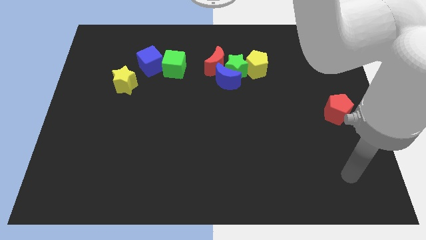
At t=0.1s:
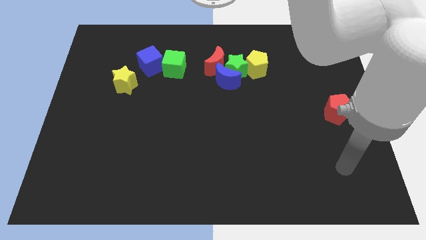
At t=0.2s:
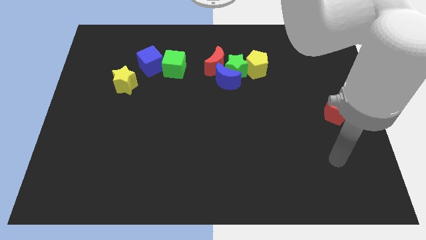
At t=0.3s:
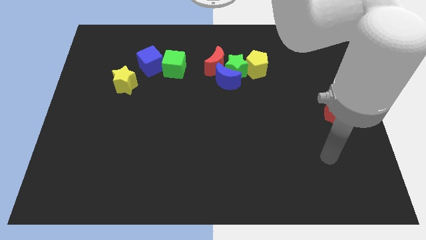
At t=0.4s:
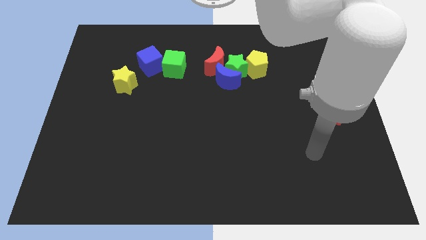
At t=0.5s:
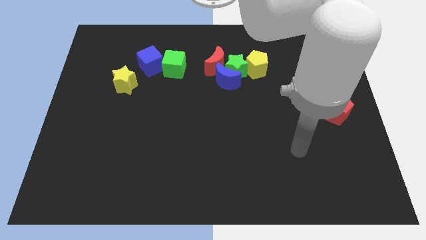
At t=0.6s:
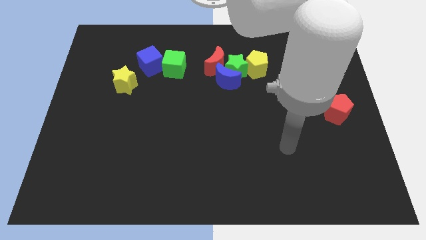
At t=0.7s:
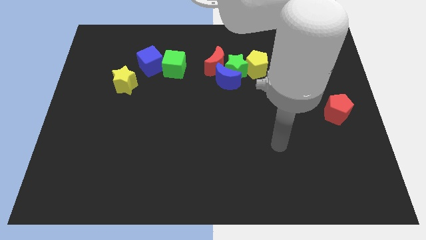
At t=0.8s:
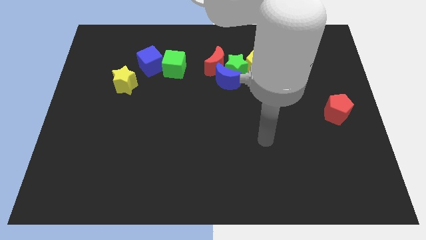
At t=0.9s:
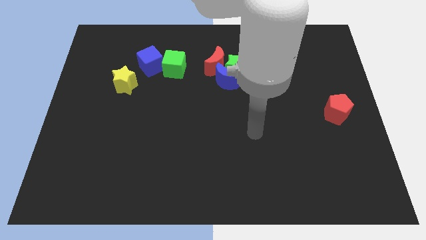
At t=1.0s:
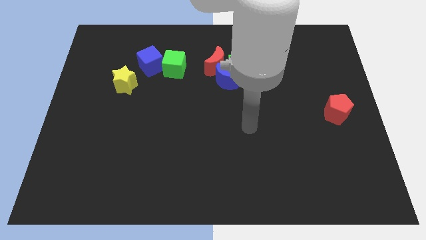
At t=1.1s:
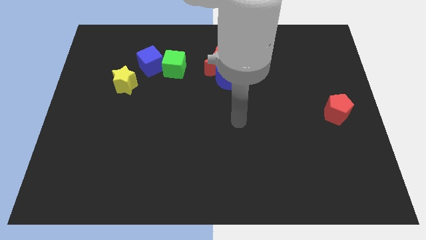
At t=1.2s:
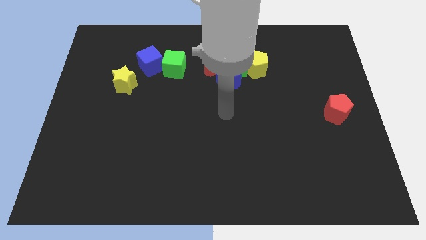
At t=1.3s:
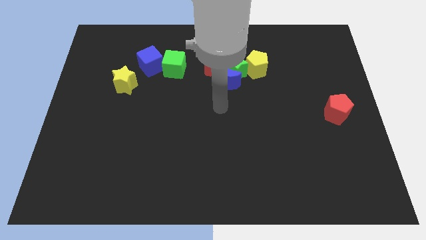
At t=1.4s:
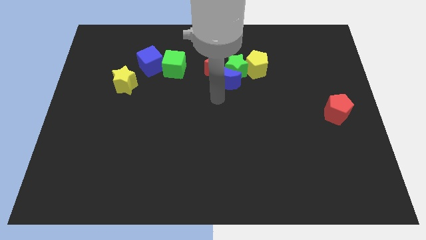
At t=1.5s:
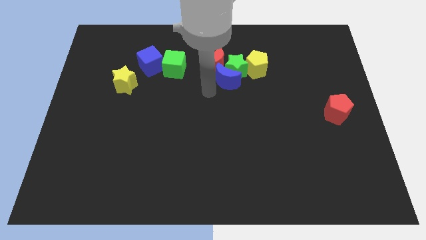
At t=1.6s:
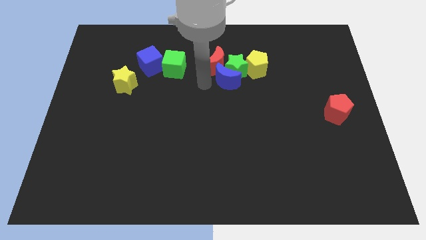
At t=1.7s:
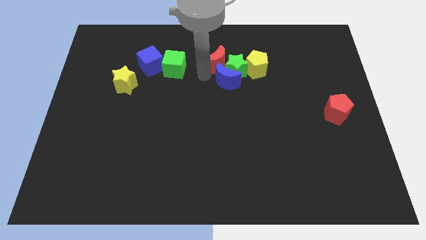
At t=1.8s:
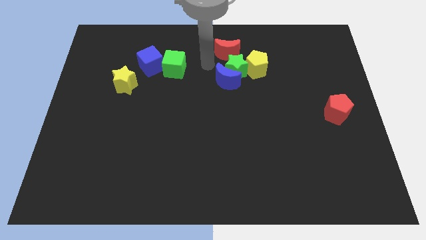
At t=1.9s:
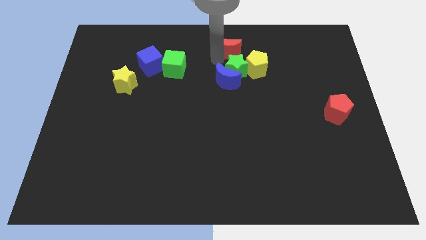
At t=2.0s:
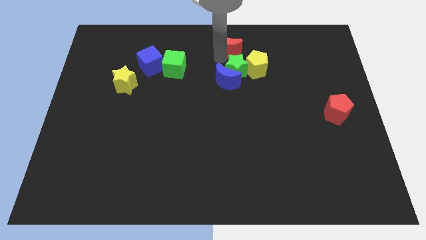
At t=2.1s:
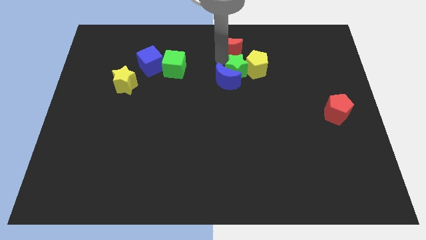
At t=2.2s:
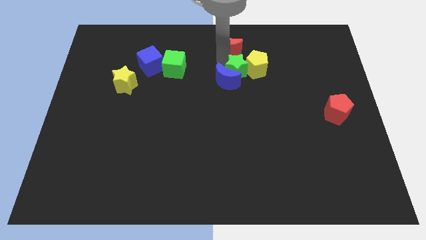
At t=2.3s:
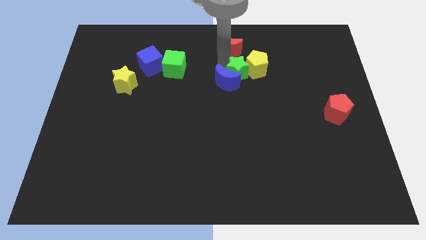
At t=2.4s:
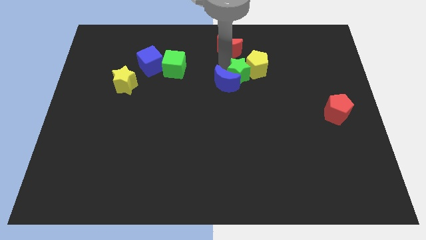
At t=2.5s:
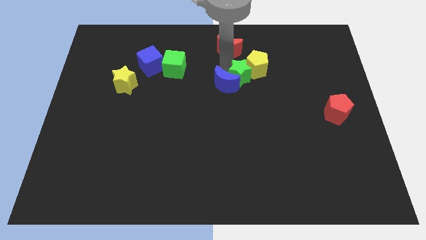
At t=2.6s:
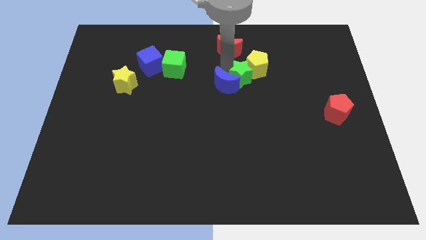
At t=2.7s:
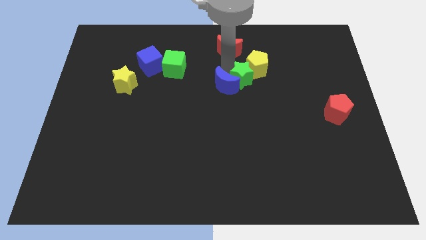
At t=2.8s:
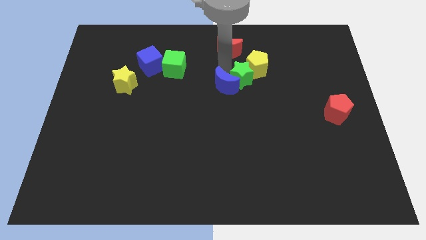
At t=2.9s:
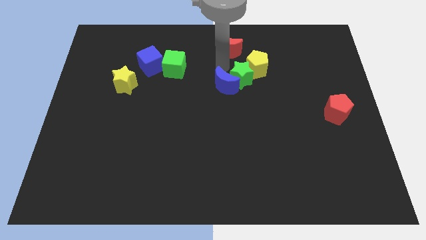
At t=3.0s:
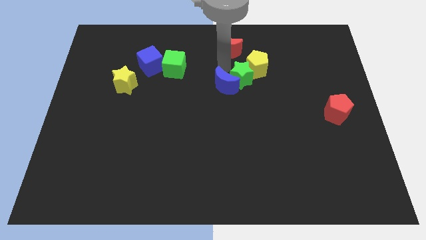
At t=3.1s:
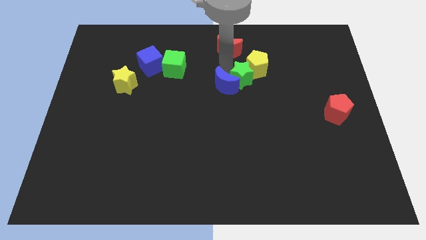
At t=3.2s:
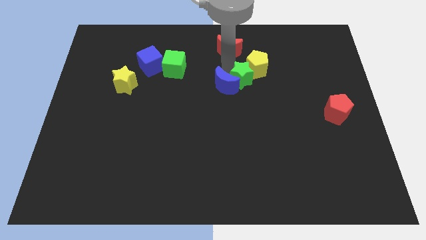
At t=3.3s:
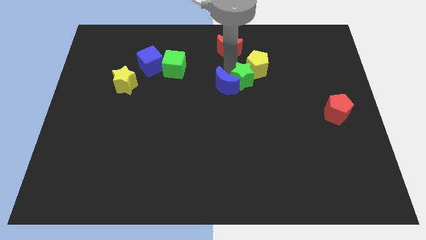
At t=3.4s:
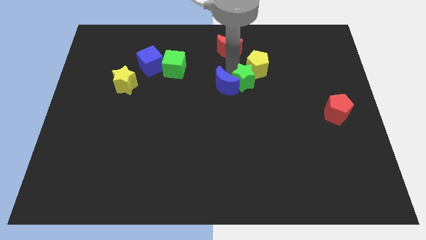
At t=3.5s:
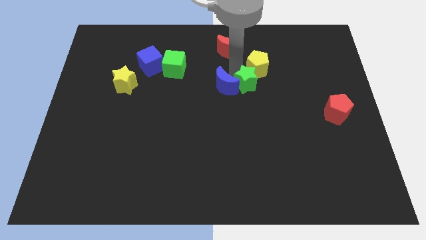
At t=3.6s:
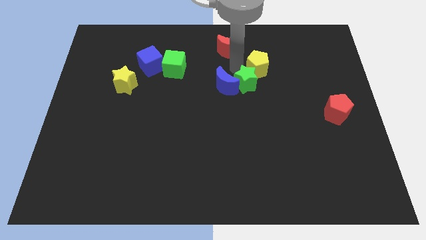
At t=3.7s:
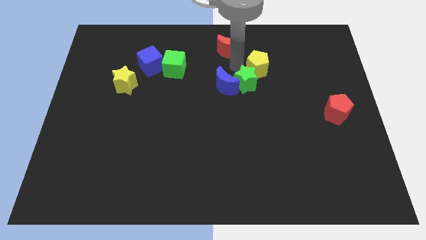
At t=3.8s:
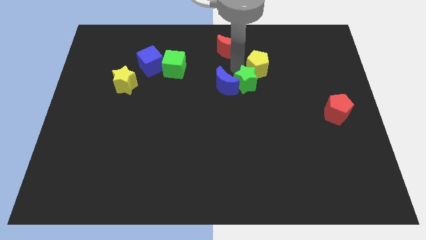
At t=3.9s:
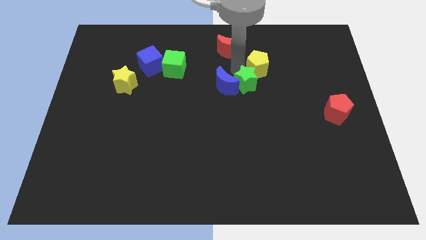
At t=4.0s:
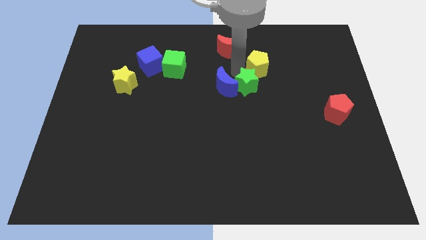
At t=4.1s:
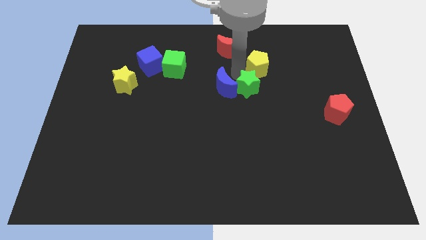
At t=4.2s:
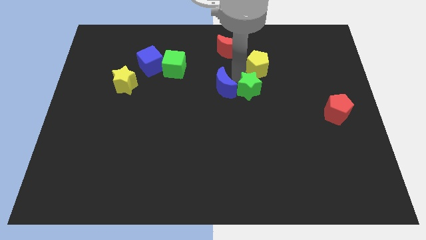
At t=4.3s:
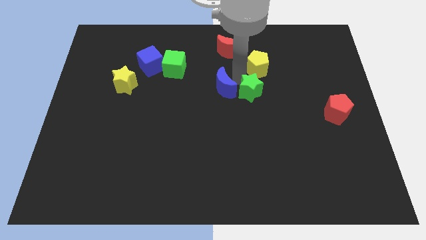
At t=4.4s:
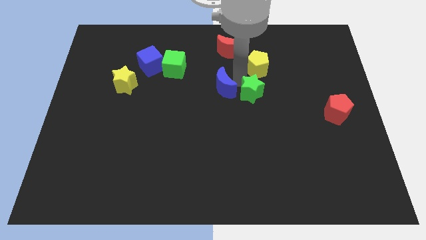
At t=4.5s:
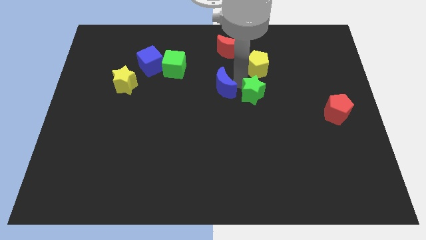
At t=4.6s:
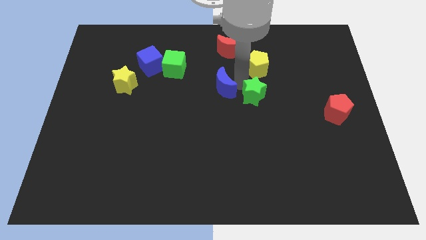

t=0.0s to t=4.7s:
pull the green star apart from the blue moon, red moon, and yellow pentagon

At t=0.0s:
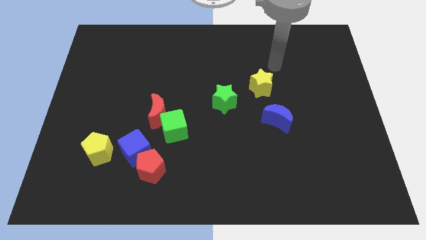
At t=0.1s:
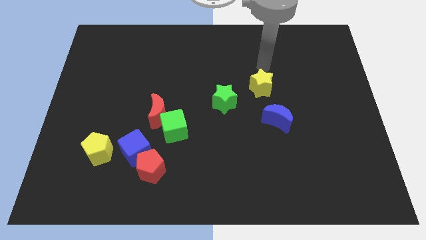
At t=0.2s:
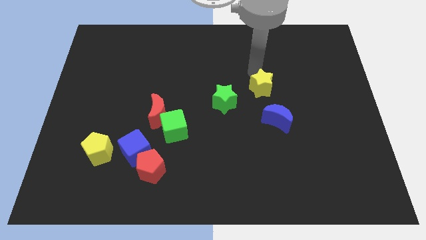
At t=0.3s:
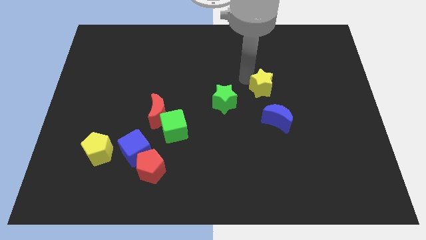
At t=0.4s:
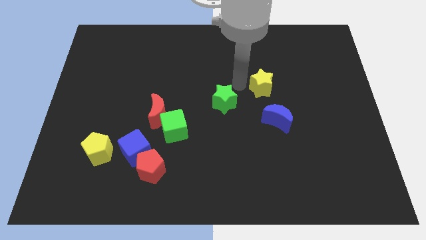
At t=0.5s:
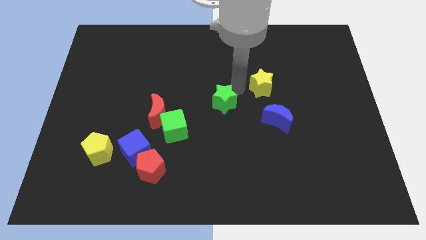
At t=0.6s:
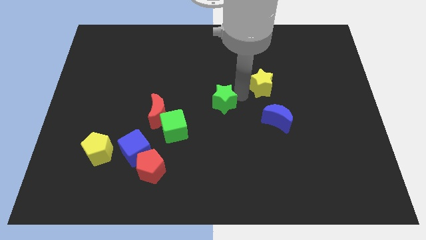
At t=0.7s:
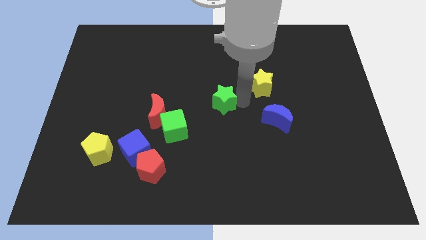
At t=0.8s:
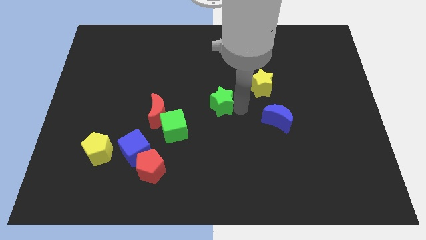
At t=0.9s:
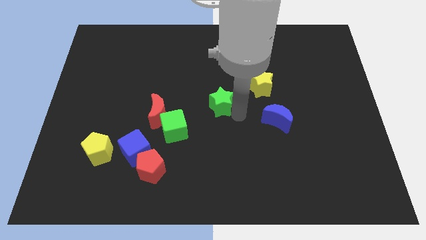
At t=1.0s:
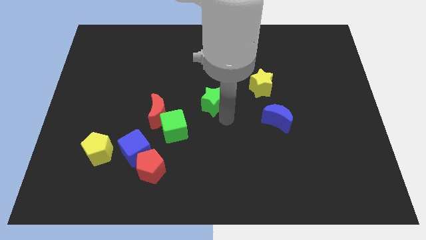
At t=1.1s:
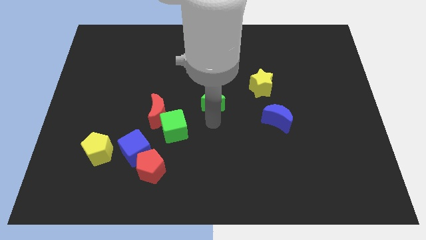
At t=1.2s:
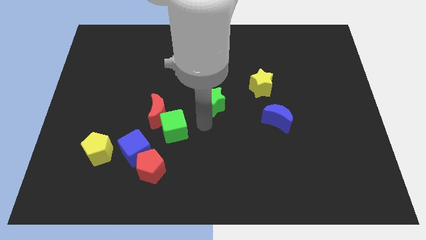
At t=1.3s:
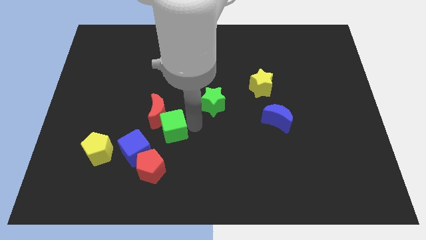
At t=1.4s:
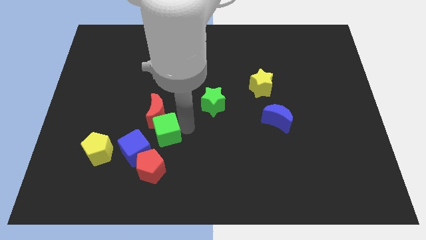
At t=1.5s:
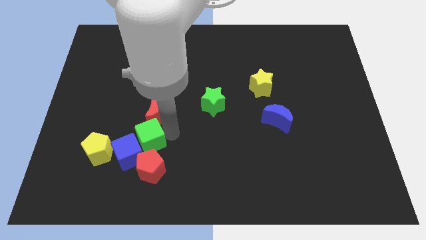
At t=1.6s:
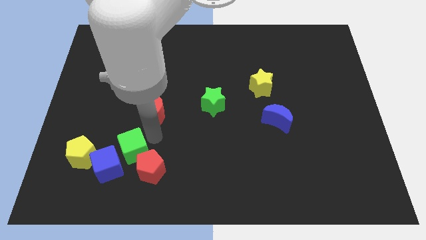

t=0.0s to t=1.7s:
move the red moon away from the green cube

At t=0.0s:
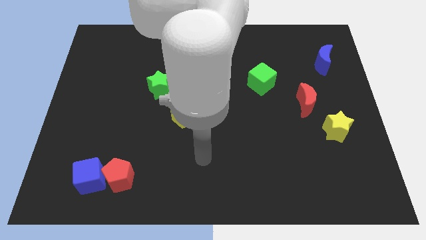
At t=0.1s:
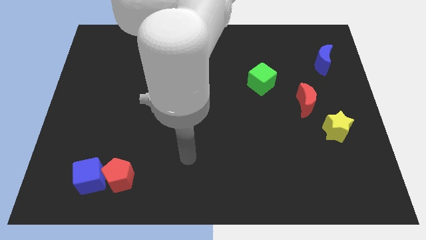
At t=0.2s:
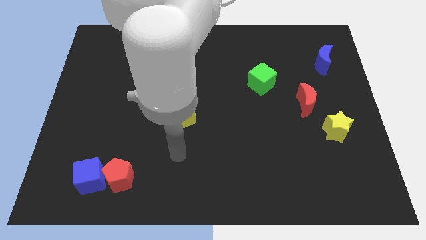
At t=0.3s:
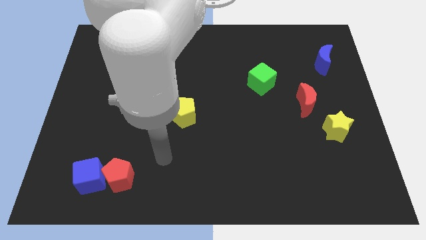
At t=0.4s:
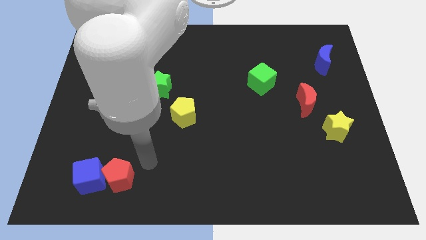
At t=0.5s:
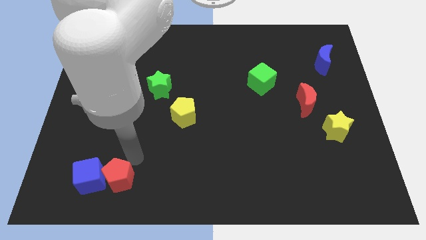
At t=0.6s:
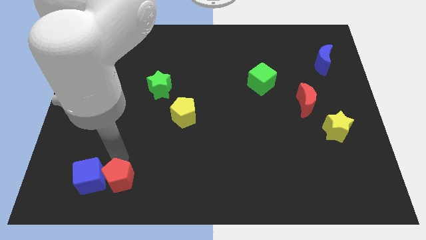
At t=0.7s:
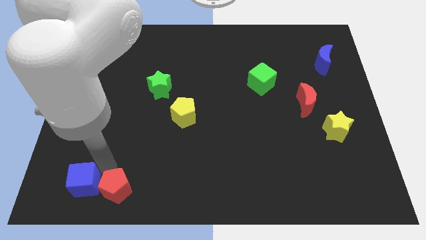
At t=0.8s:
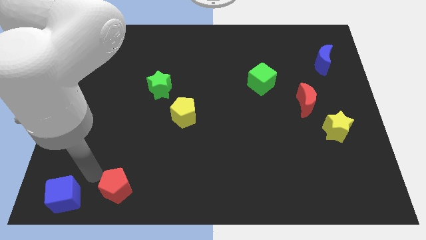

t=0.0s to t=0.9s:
pull the red pentagon apart from the blue cube

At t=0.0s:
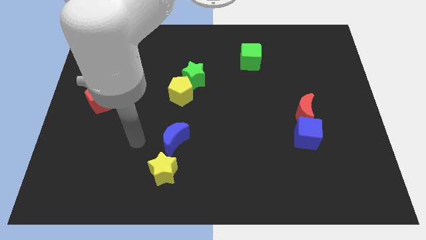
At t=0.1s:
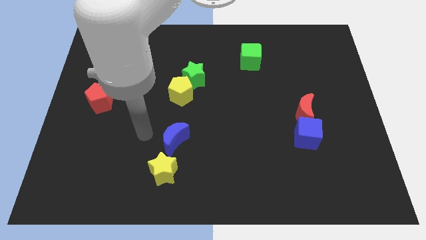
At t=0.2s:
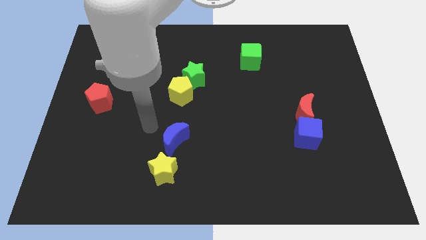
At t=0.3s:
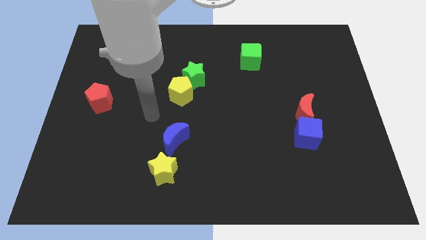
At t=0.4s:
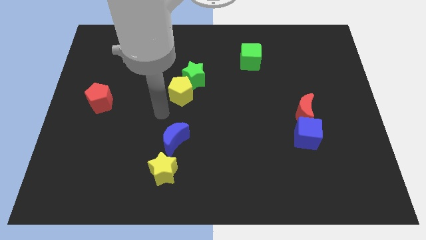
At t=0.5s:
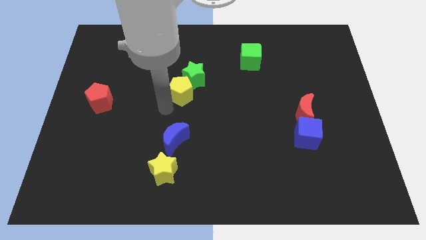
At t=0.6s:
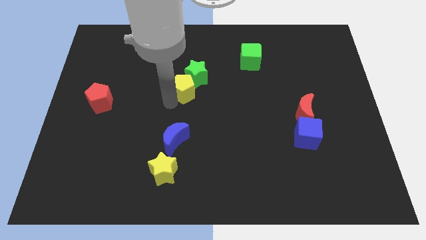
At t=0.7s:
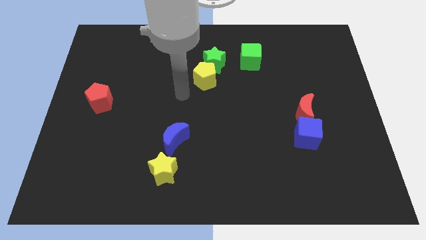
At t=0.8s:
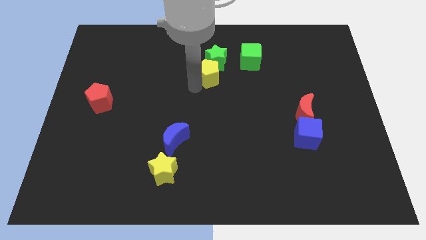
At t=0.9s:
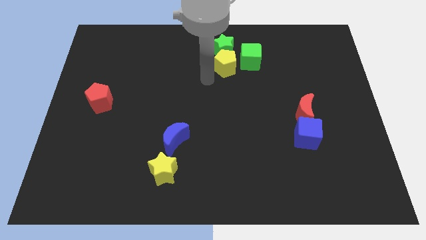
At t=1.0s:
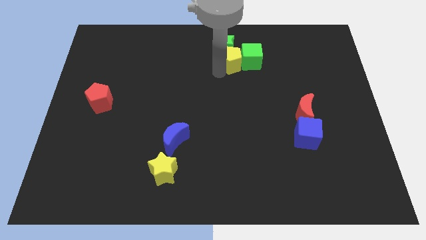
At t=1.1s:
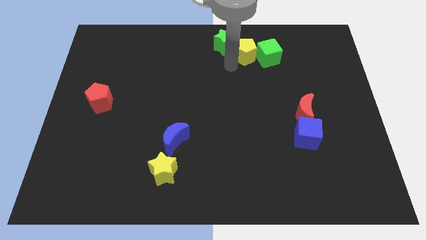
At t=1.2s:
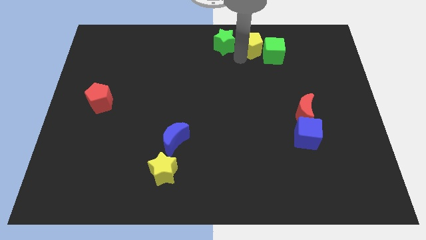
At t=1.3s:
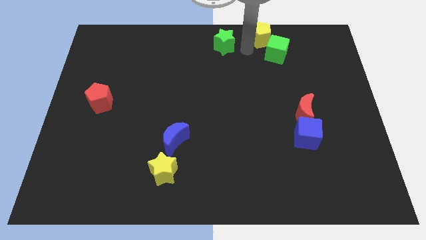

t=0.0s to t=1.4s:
pull the green star apart from the yellow pentagon

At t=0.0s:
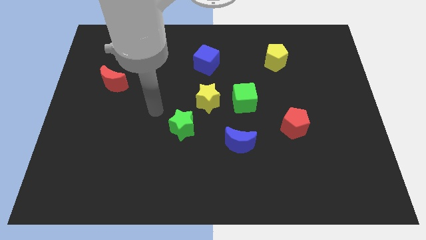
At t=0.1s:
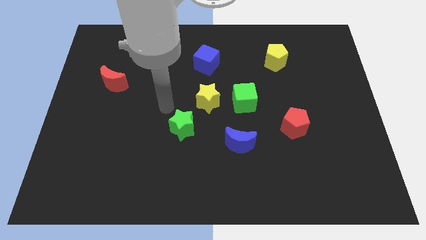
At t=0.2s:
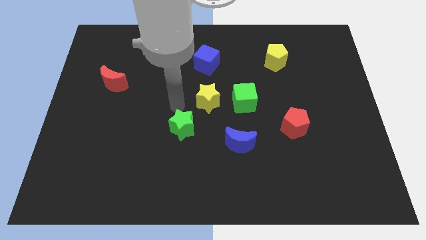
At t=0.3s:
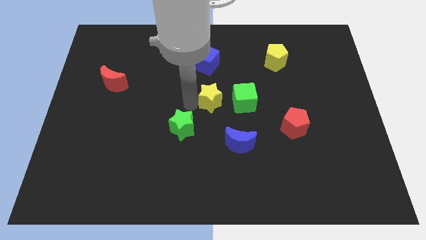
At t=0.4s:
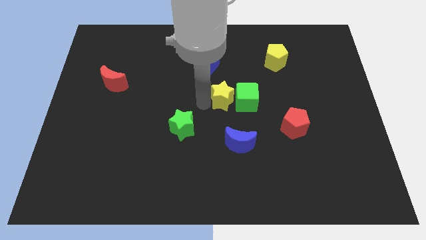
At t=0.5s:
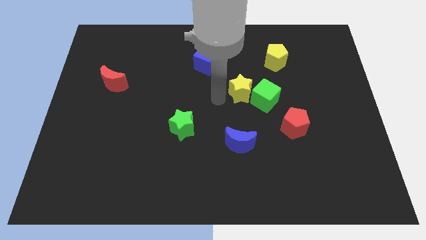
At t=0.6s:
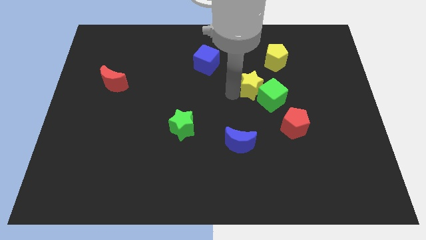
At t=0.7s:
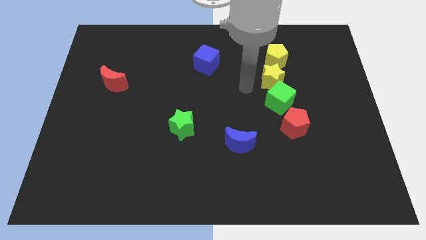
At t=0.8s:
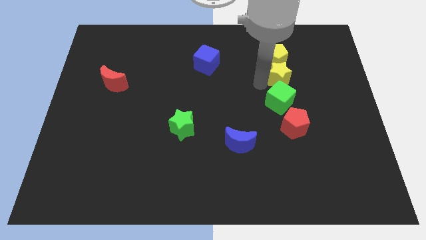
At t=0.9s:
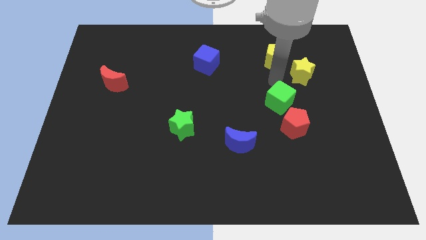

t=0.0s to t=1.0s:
pull the green cube apart from the yellow star
